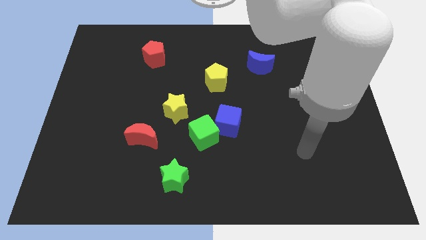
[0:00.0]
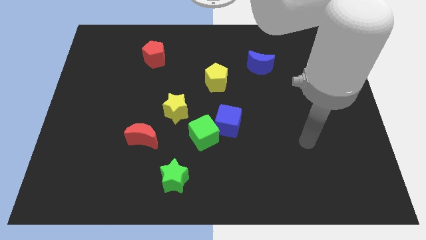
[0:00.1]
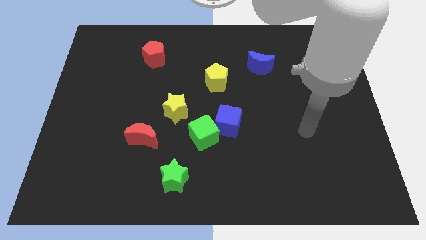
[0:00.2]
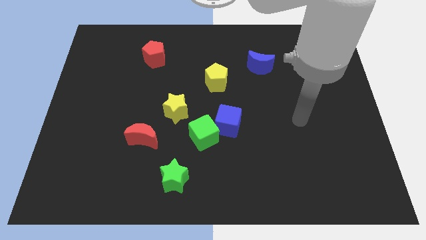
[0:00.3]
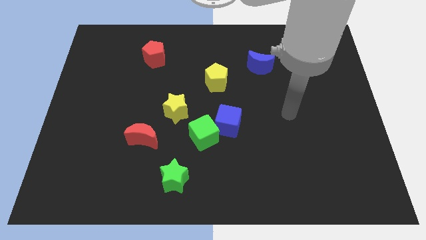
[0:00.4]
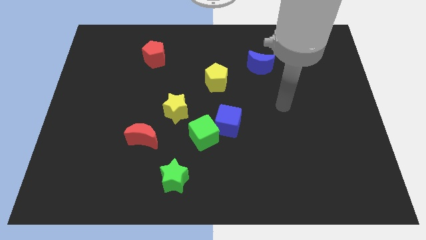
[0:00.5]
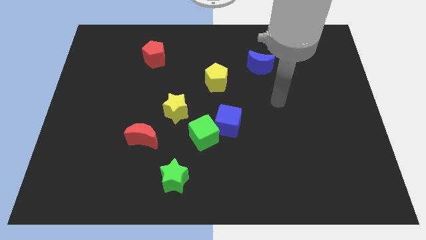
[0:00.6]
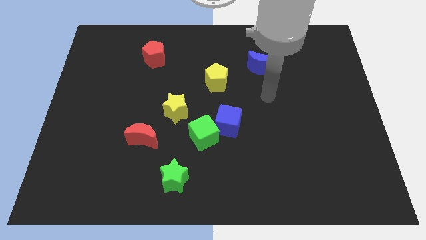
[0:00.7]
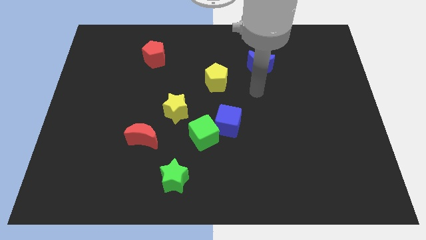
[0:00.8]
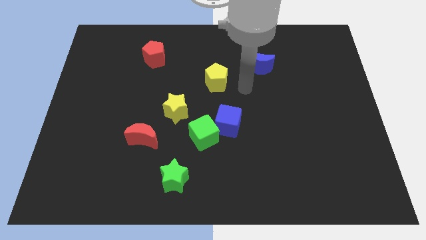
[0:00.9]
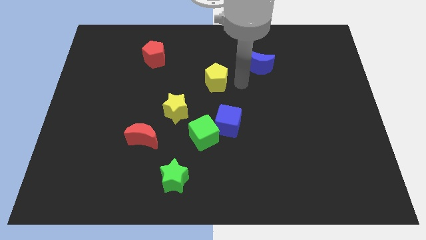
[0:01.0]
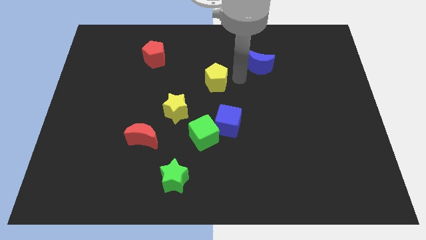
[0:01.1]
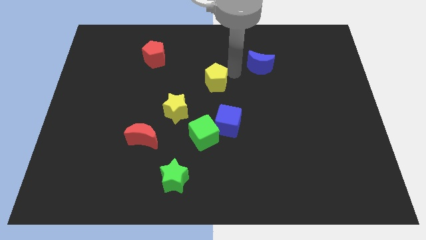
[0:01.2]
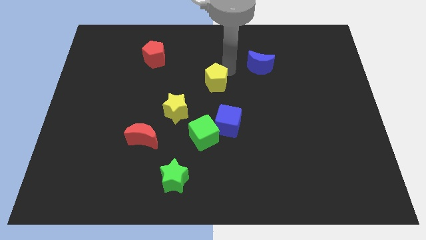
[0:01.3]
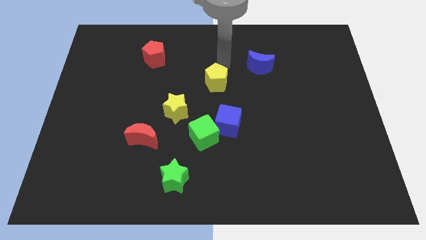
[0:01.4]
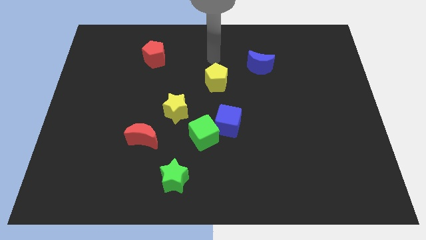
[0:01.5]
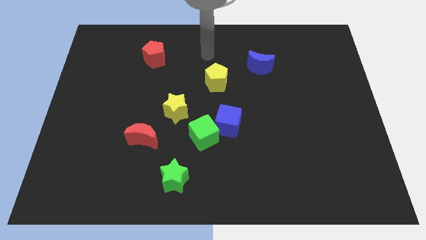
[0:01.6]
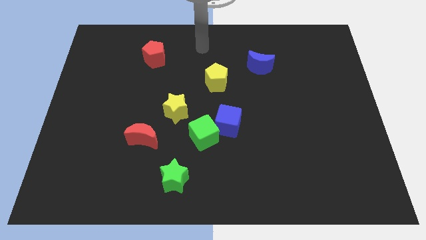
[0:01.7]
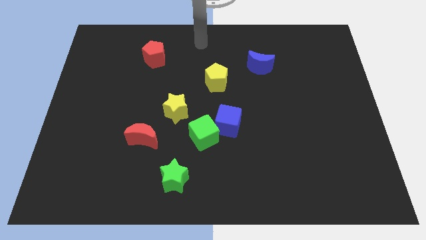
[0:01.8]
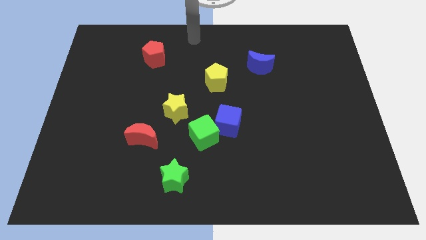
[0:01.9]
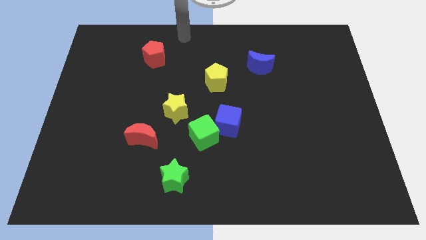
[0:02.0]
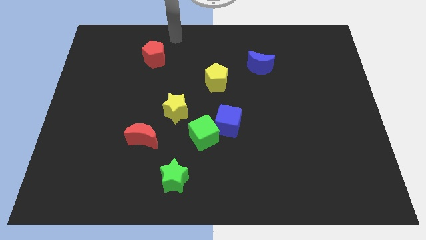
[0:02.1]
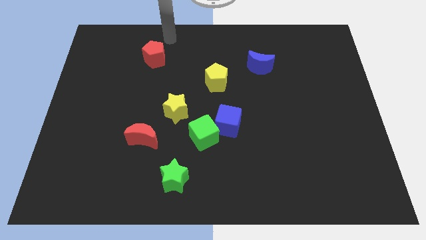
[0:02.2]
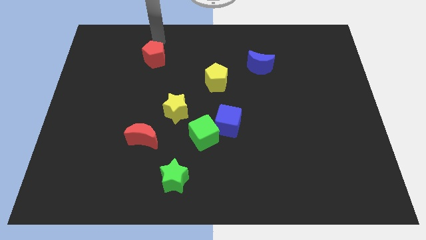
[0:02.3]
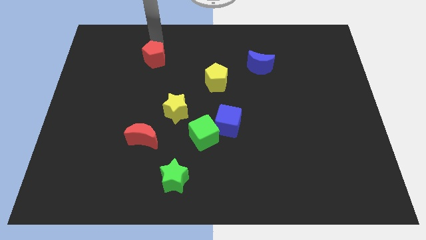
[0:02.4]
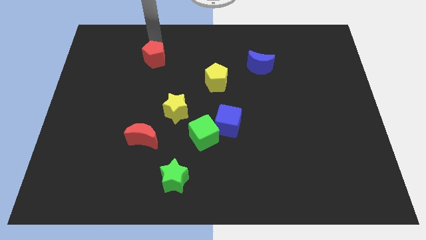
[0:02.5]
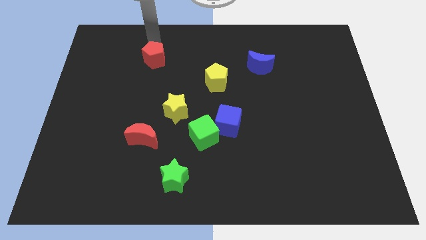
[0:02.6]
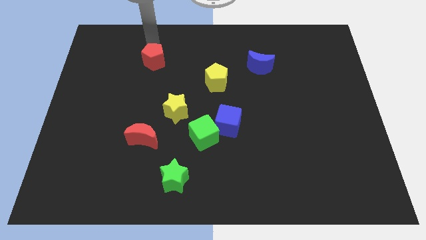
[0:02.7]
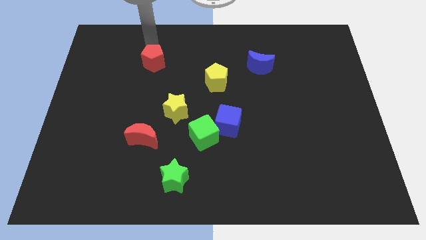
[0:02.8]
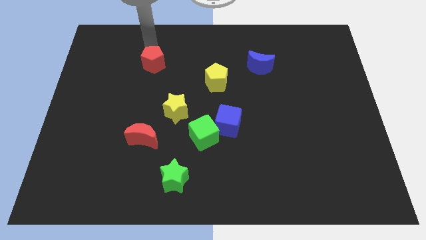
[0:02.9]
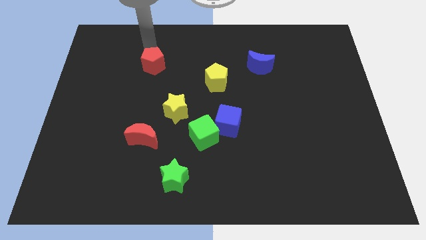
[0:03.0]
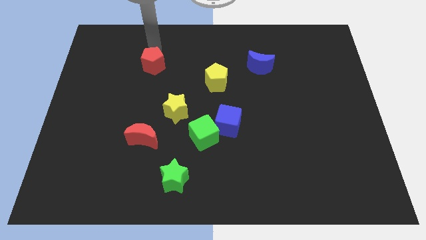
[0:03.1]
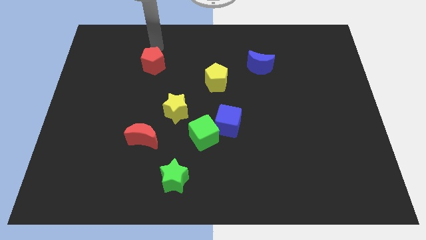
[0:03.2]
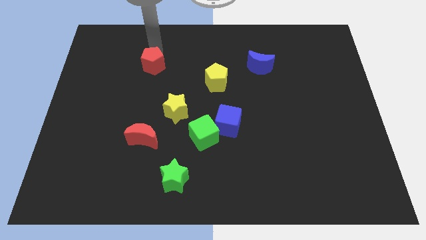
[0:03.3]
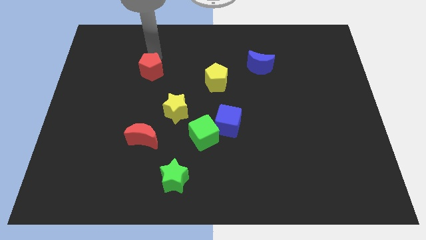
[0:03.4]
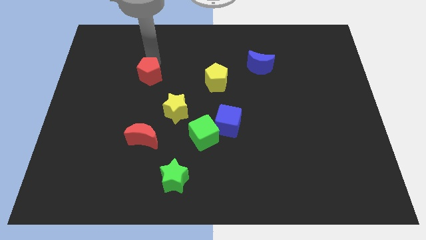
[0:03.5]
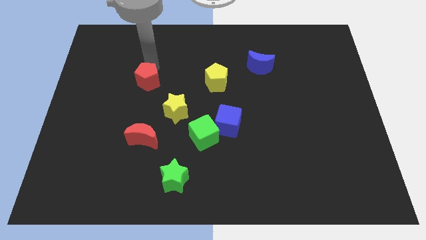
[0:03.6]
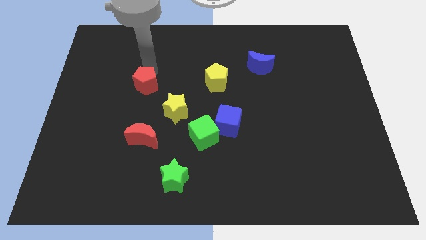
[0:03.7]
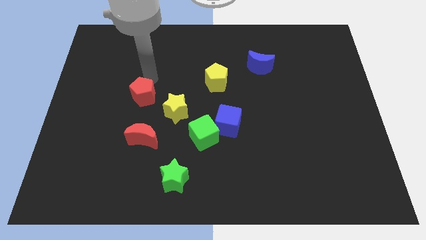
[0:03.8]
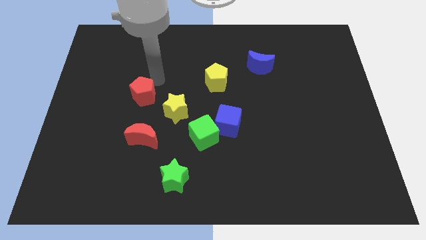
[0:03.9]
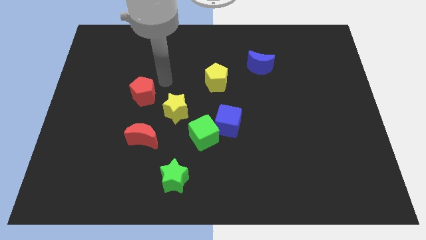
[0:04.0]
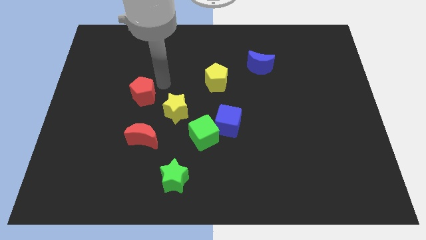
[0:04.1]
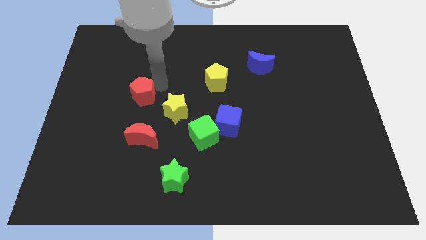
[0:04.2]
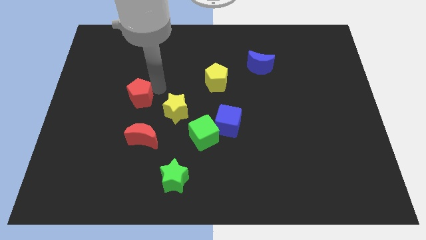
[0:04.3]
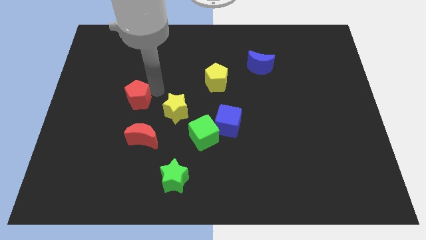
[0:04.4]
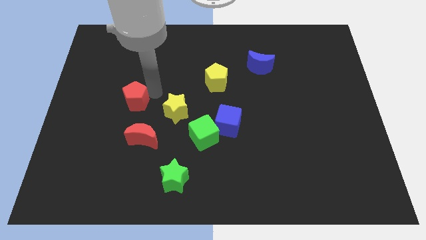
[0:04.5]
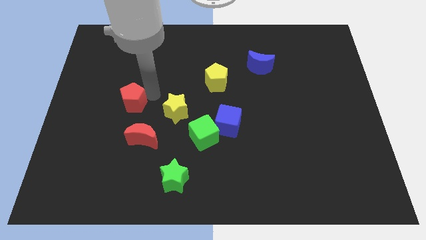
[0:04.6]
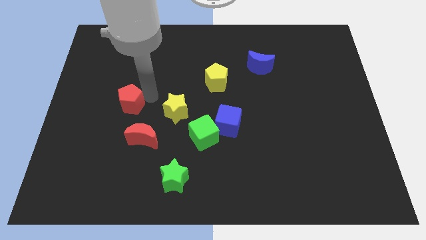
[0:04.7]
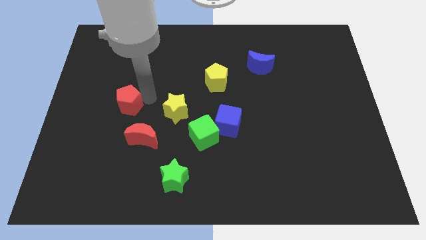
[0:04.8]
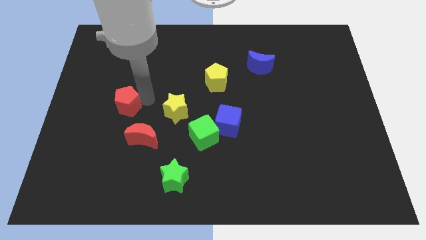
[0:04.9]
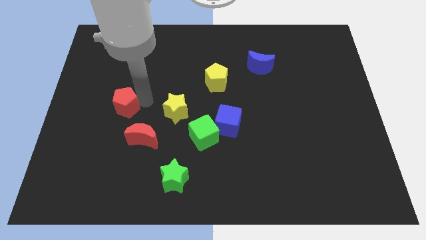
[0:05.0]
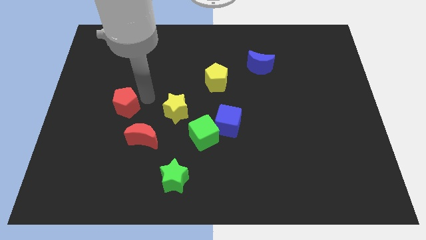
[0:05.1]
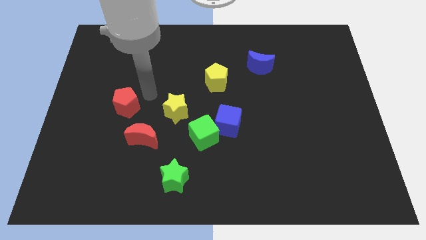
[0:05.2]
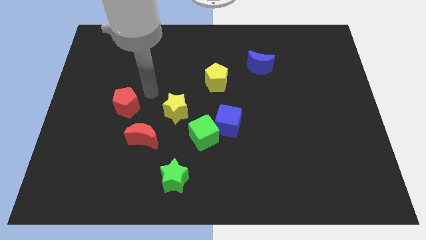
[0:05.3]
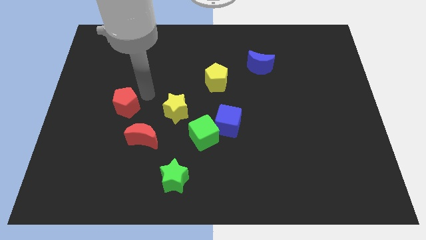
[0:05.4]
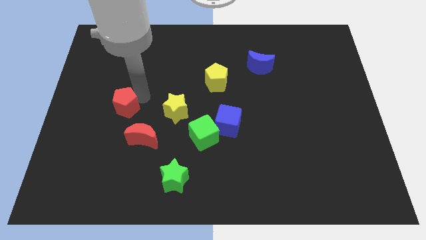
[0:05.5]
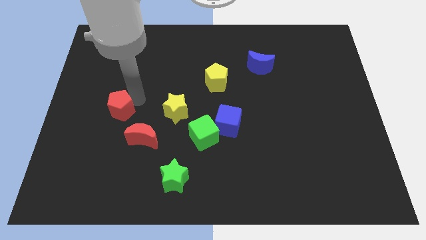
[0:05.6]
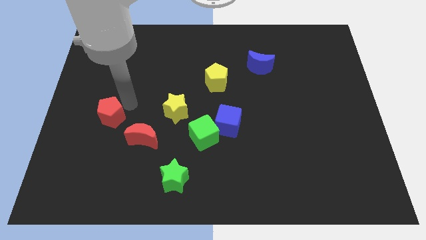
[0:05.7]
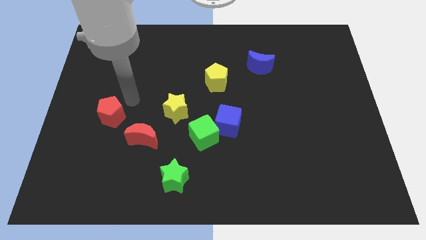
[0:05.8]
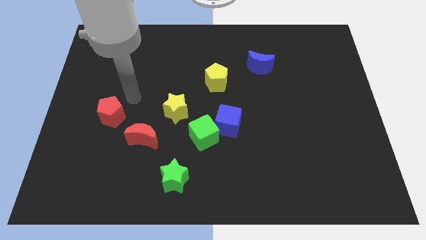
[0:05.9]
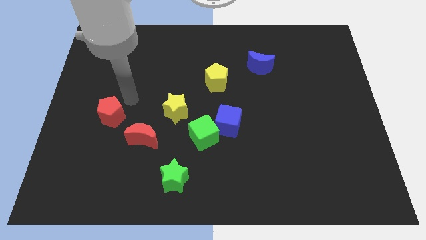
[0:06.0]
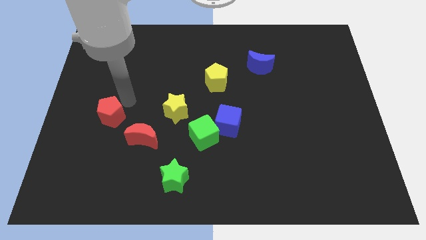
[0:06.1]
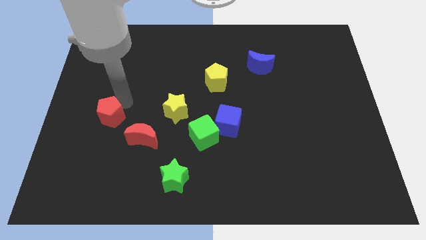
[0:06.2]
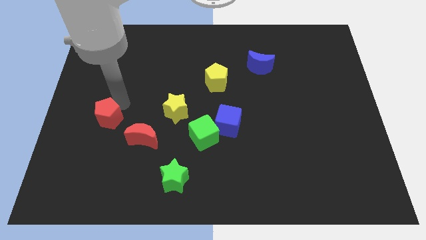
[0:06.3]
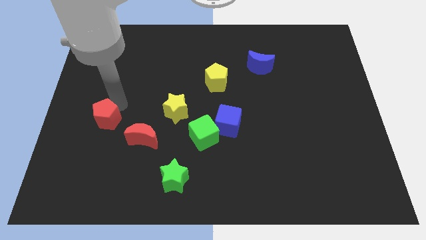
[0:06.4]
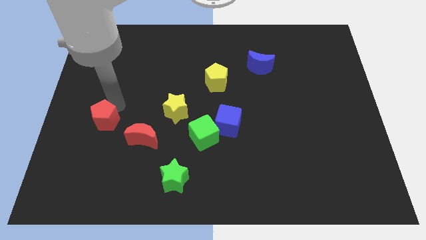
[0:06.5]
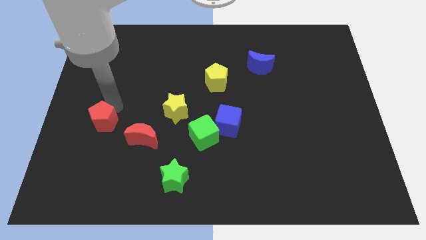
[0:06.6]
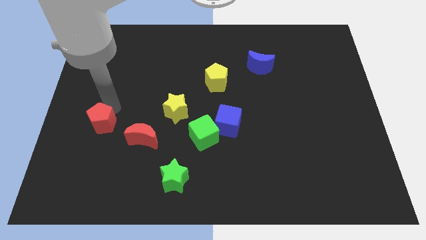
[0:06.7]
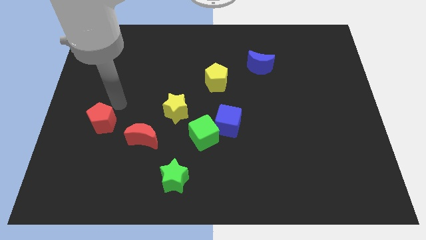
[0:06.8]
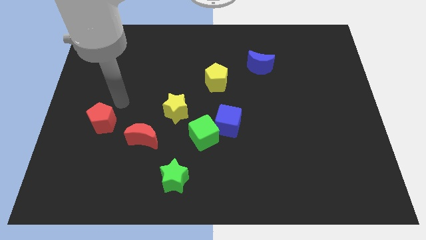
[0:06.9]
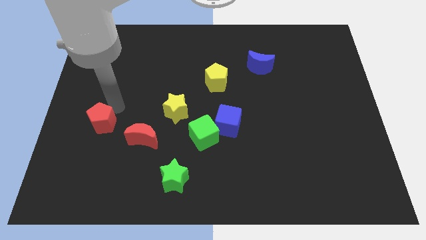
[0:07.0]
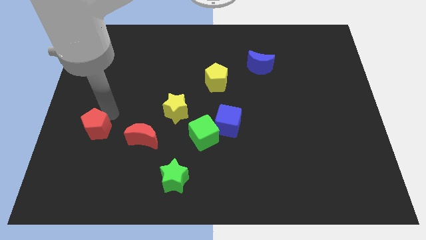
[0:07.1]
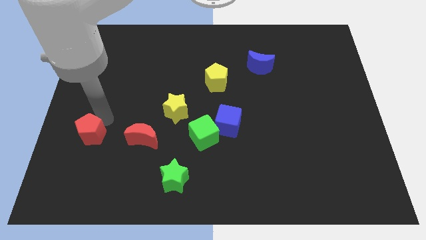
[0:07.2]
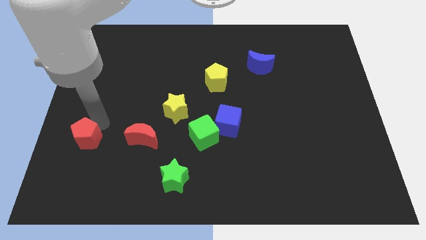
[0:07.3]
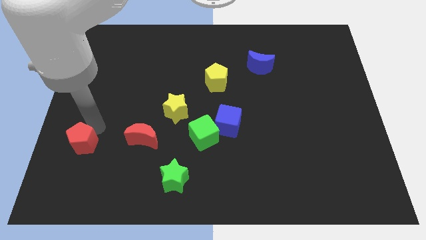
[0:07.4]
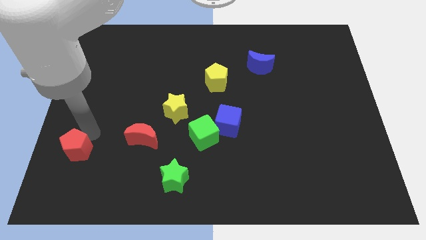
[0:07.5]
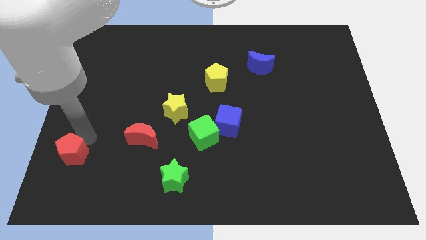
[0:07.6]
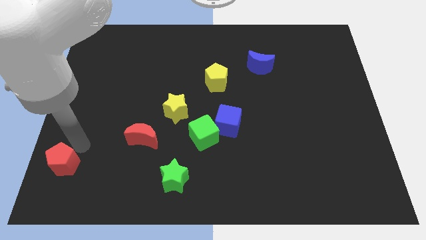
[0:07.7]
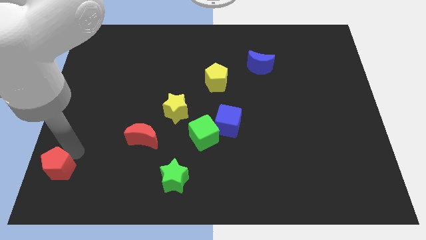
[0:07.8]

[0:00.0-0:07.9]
put the red pentagon to the bottom left of the board
